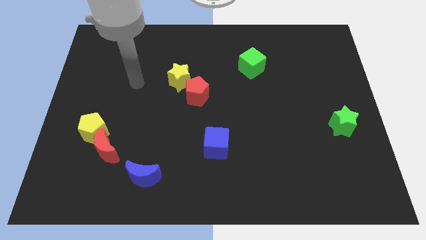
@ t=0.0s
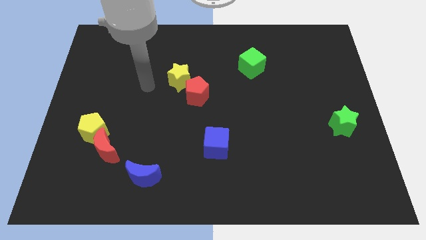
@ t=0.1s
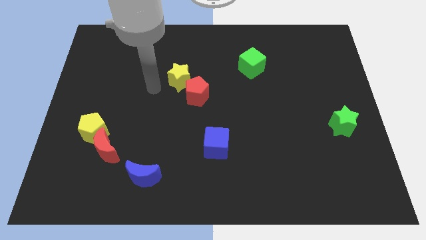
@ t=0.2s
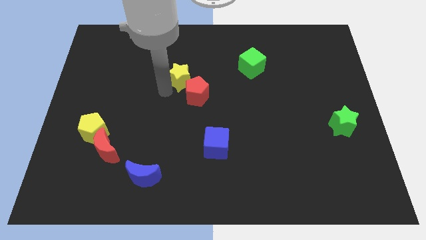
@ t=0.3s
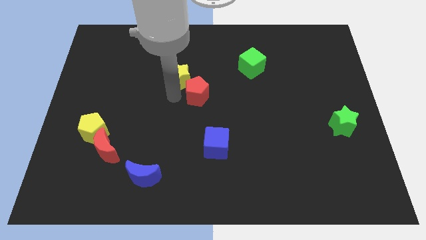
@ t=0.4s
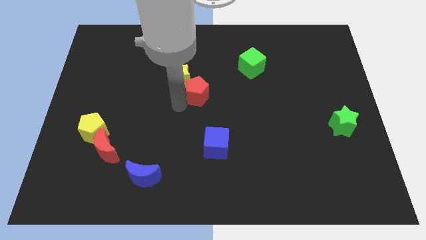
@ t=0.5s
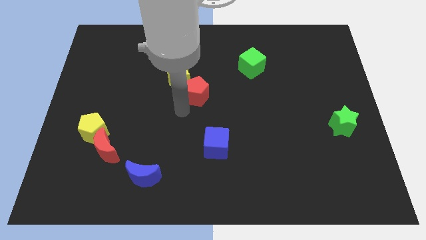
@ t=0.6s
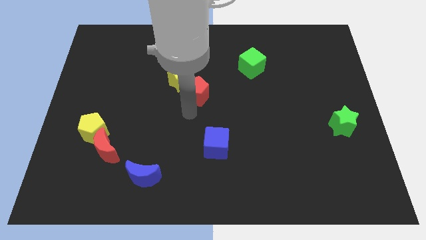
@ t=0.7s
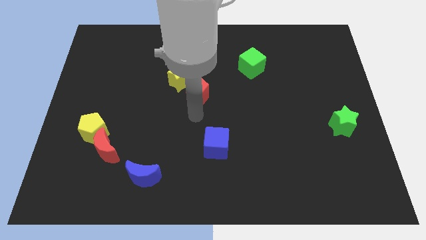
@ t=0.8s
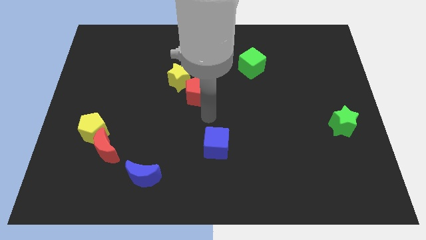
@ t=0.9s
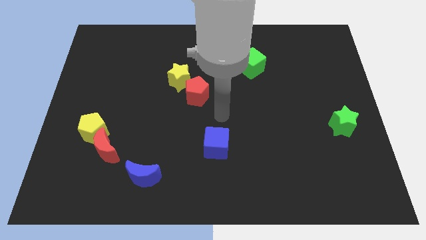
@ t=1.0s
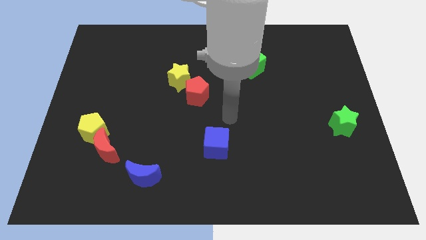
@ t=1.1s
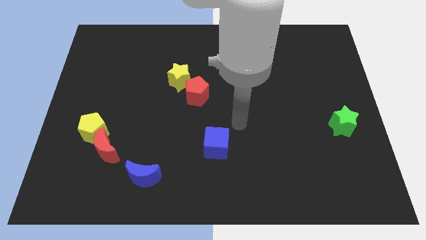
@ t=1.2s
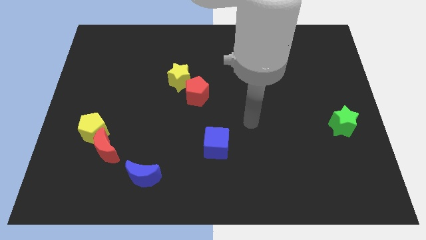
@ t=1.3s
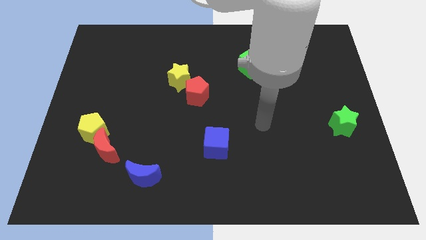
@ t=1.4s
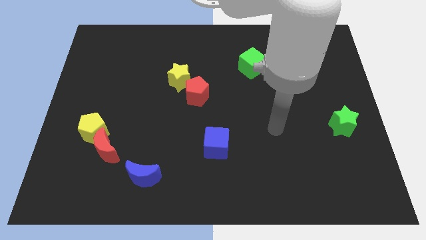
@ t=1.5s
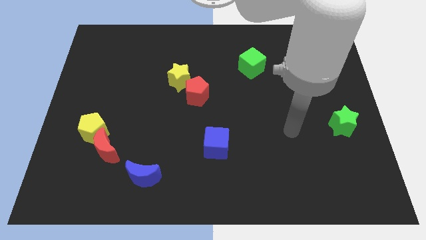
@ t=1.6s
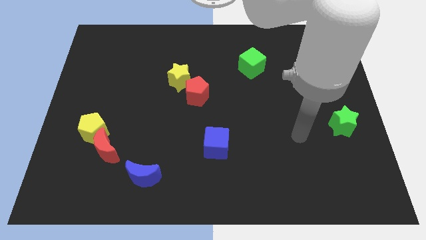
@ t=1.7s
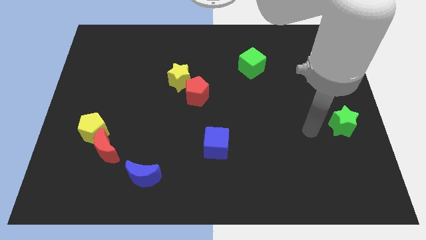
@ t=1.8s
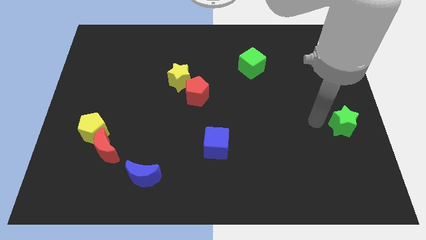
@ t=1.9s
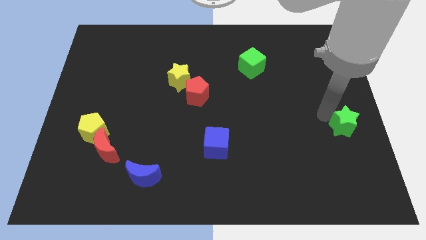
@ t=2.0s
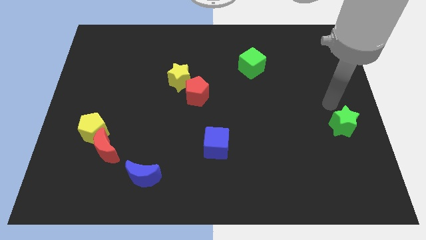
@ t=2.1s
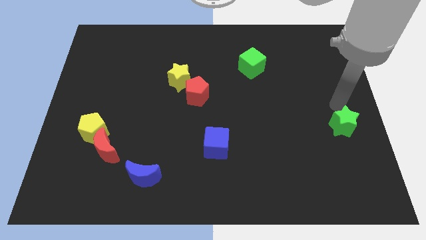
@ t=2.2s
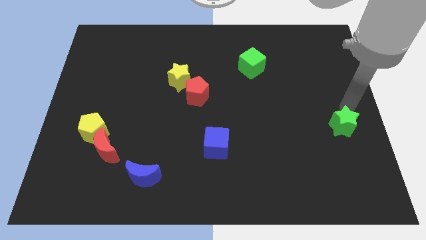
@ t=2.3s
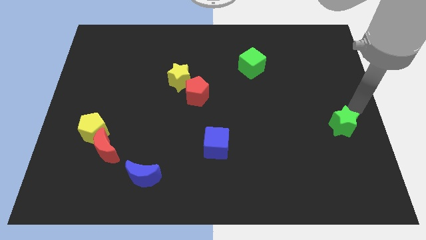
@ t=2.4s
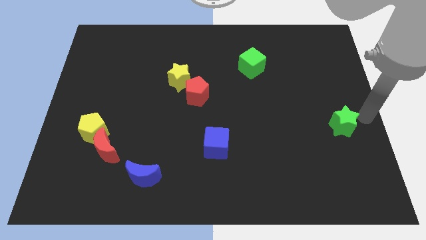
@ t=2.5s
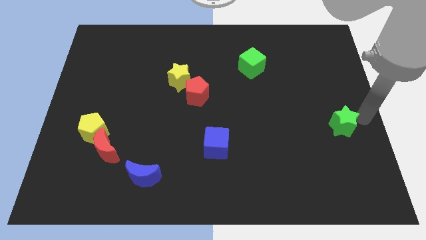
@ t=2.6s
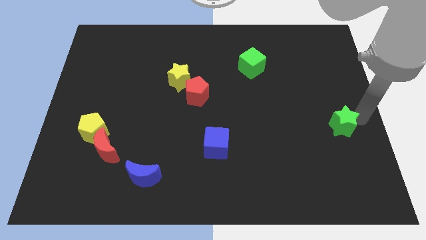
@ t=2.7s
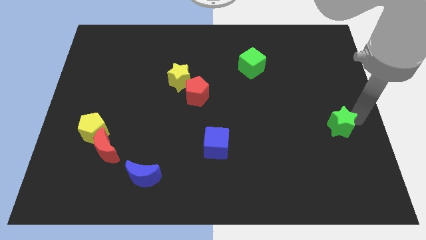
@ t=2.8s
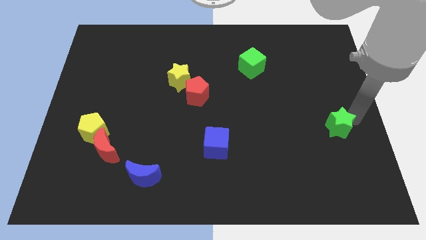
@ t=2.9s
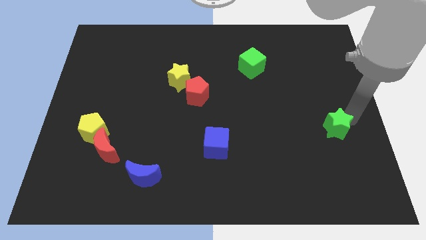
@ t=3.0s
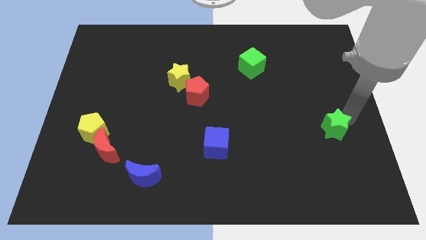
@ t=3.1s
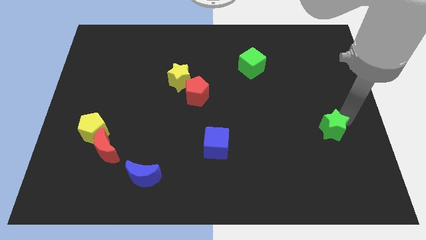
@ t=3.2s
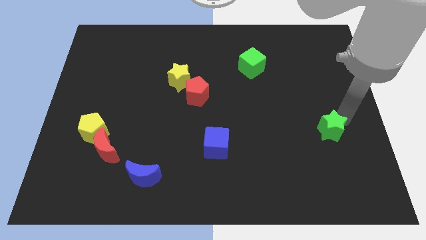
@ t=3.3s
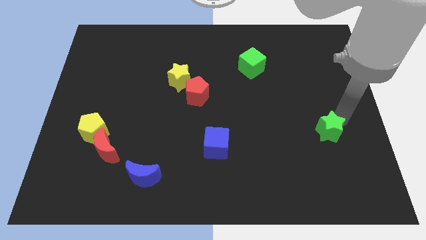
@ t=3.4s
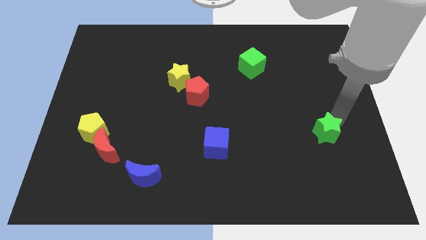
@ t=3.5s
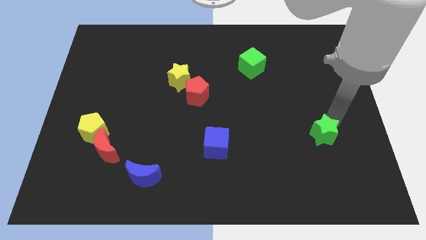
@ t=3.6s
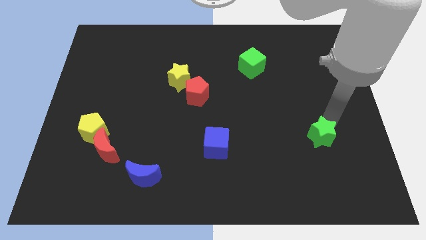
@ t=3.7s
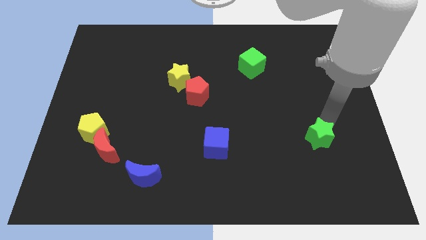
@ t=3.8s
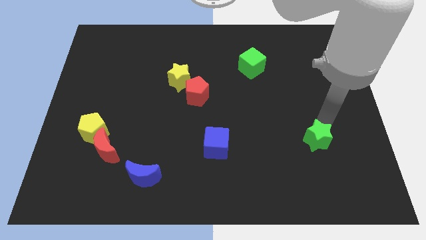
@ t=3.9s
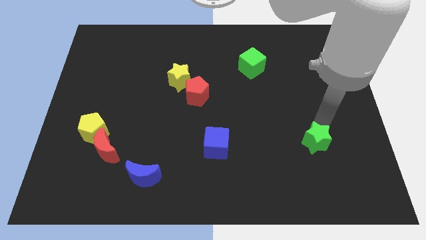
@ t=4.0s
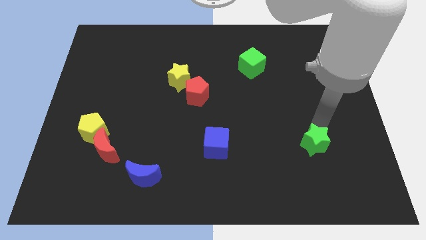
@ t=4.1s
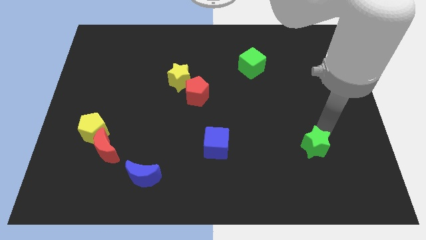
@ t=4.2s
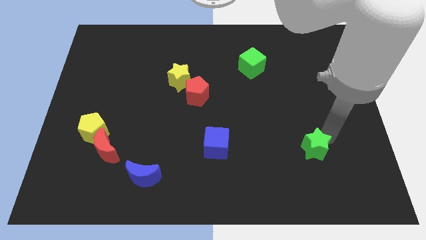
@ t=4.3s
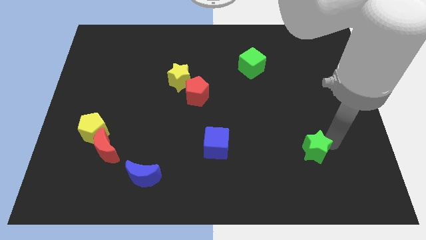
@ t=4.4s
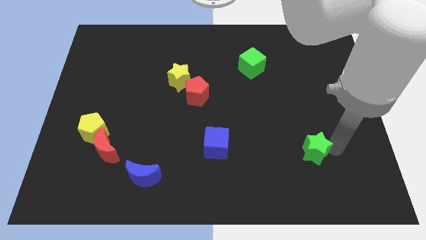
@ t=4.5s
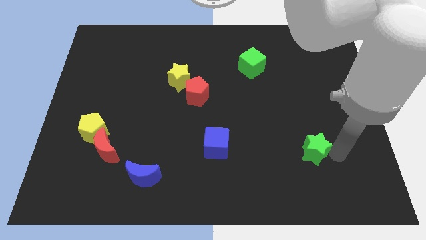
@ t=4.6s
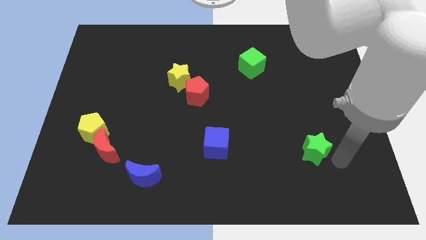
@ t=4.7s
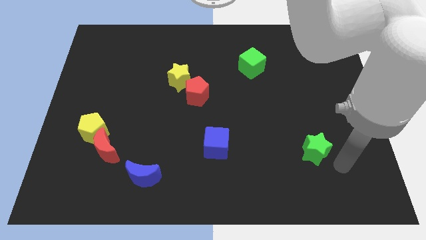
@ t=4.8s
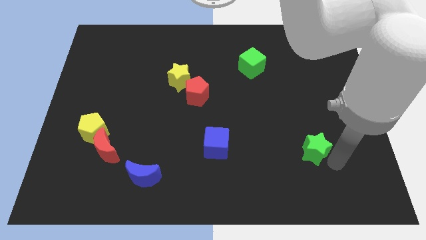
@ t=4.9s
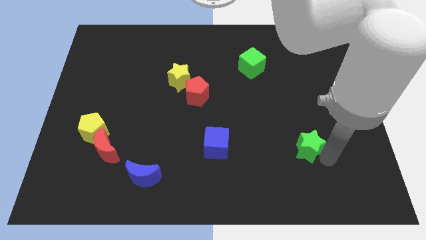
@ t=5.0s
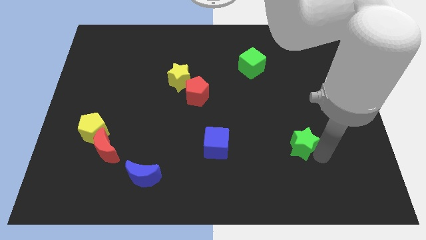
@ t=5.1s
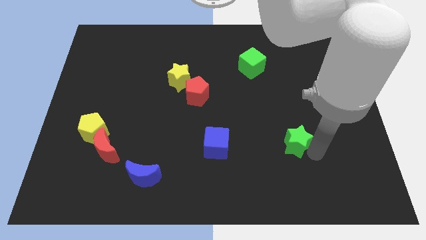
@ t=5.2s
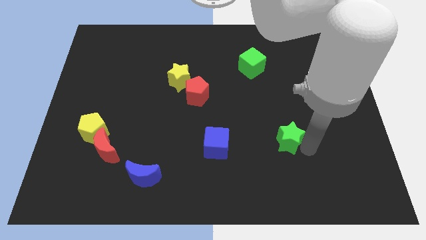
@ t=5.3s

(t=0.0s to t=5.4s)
move the green star right of the blue cube

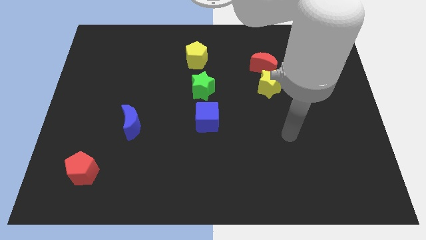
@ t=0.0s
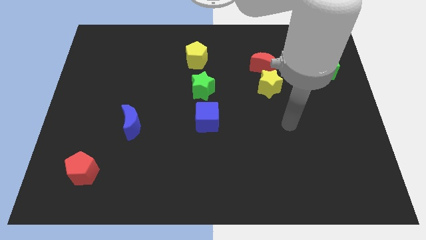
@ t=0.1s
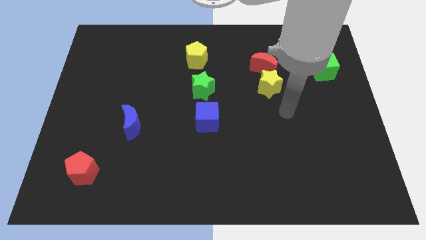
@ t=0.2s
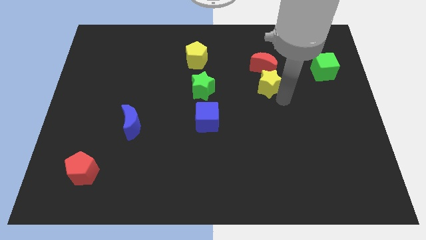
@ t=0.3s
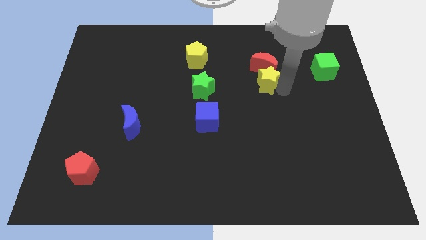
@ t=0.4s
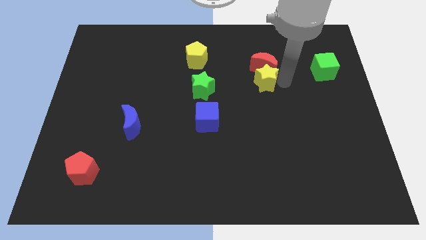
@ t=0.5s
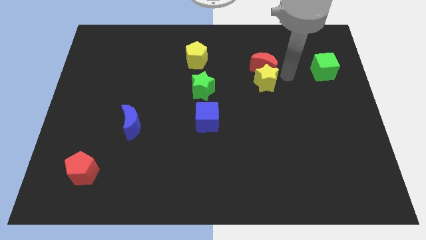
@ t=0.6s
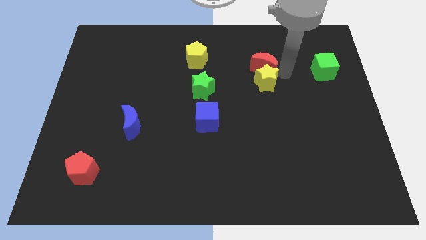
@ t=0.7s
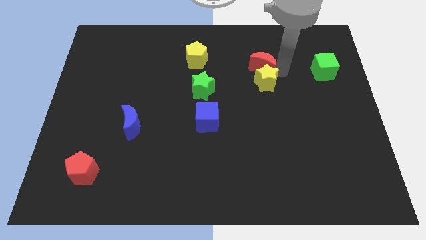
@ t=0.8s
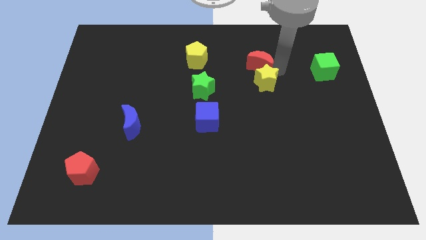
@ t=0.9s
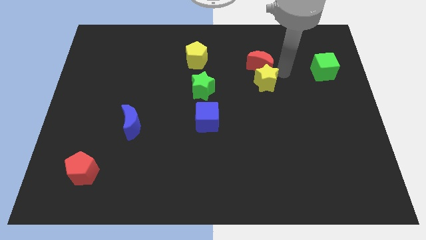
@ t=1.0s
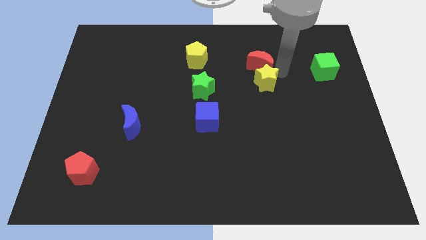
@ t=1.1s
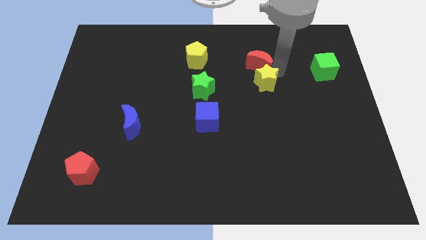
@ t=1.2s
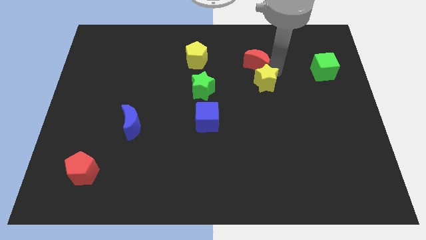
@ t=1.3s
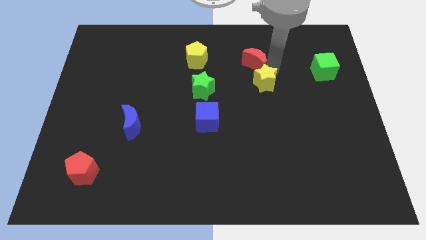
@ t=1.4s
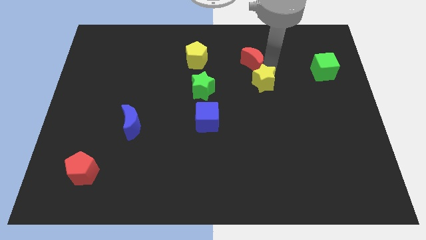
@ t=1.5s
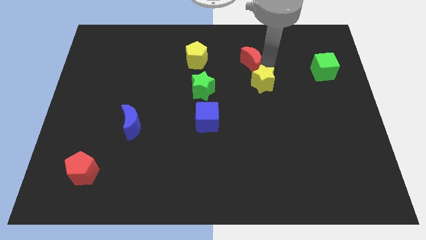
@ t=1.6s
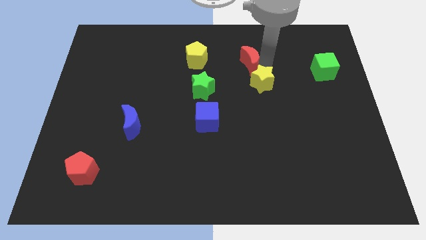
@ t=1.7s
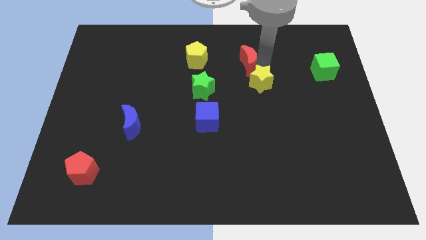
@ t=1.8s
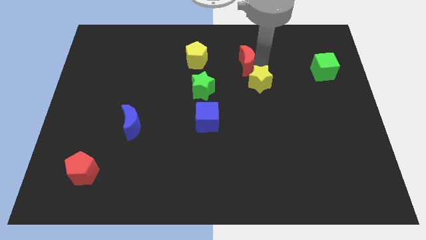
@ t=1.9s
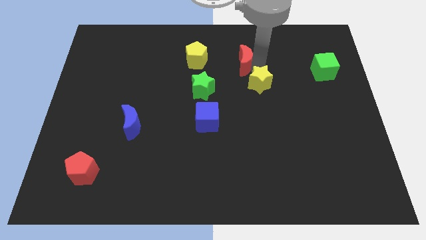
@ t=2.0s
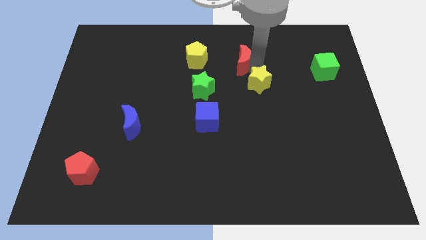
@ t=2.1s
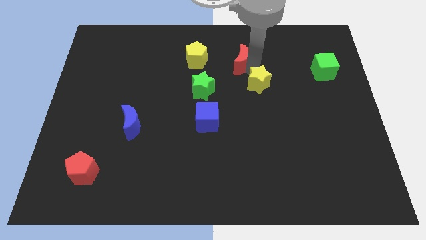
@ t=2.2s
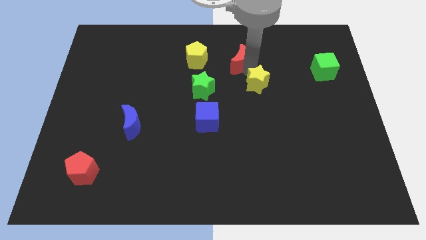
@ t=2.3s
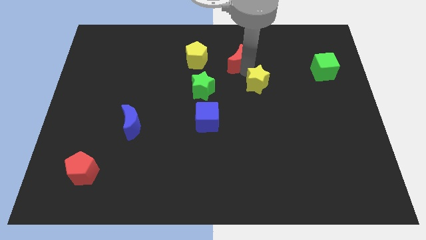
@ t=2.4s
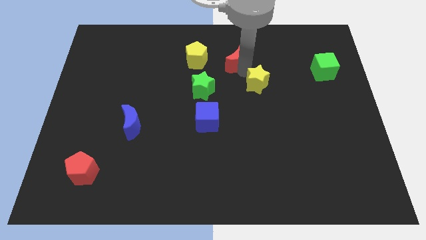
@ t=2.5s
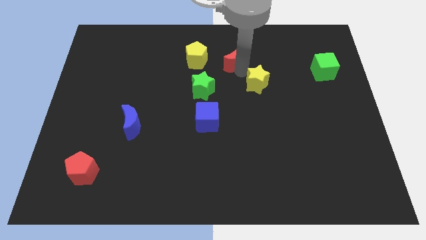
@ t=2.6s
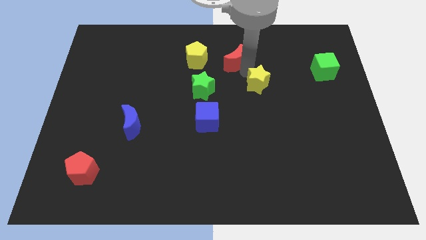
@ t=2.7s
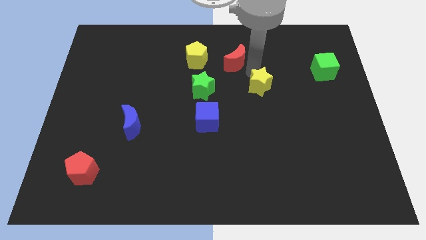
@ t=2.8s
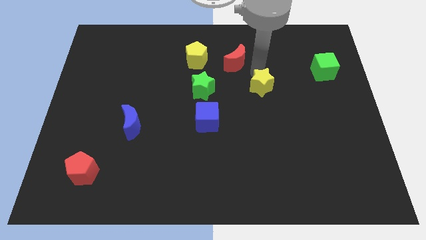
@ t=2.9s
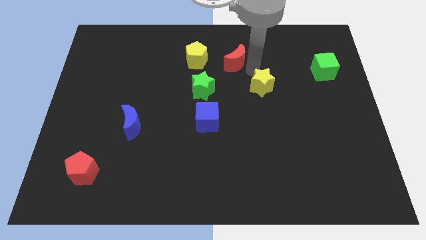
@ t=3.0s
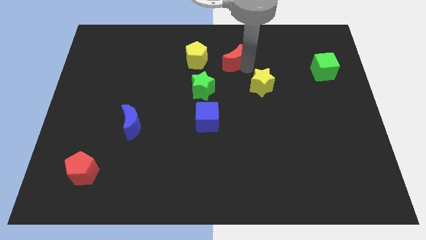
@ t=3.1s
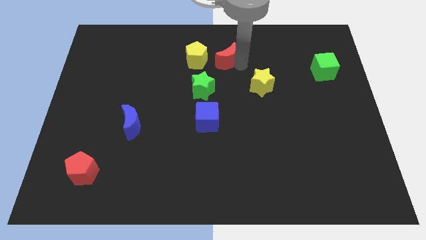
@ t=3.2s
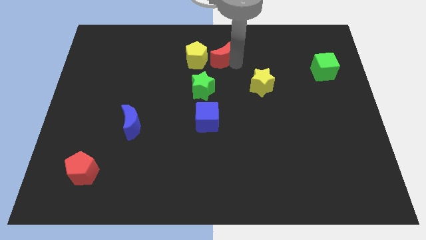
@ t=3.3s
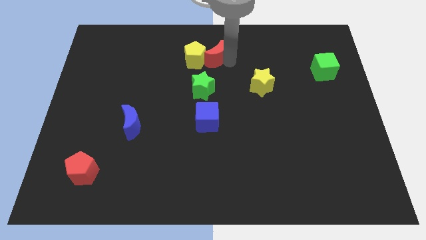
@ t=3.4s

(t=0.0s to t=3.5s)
push the red moon to the top of the green star
